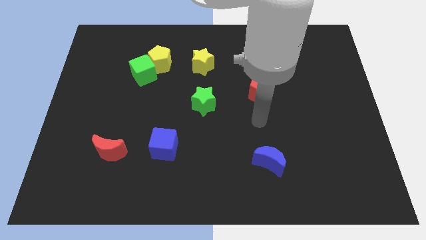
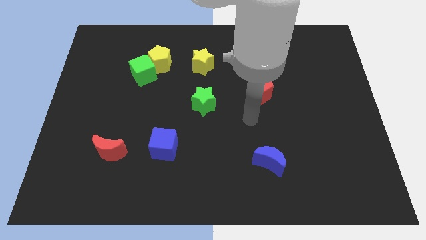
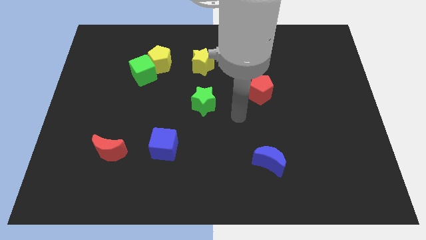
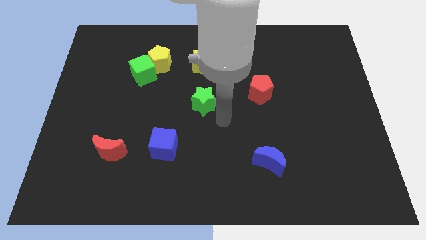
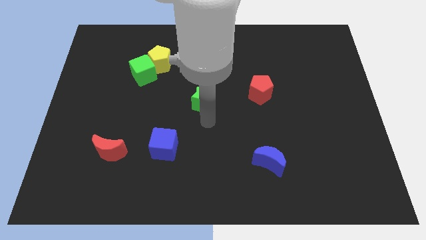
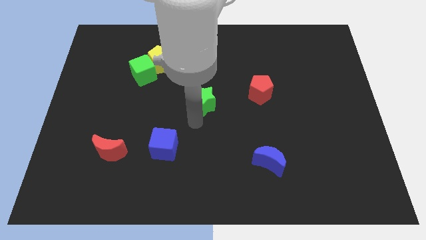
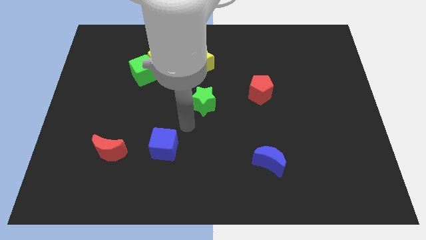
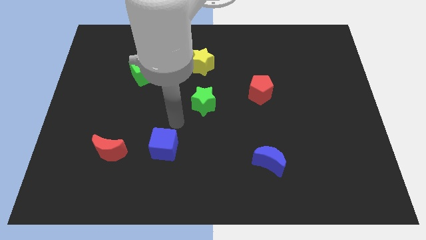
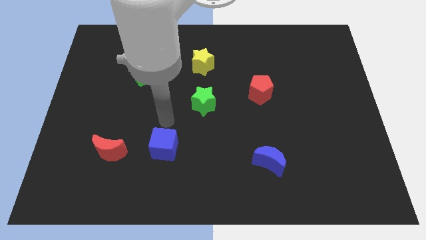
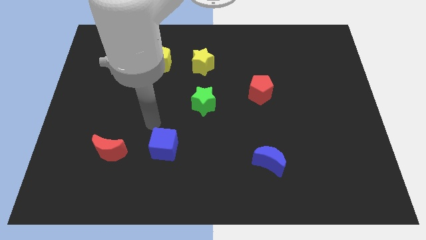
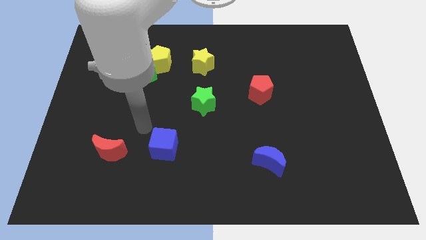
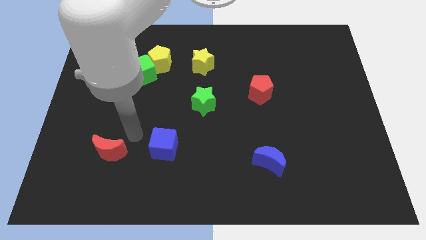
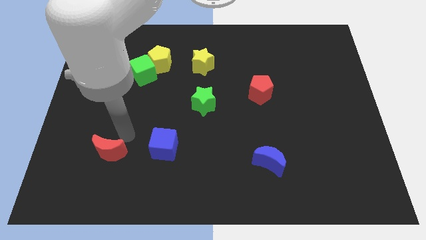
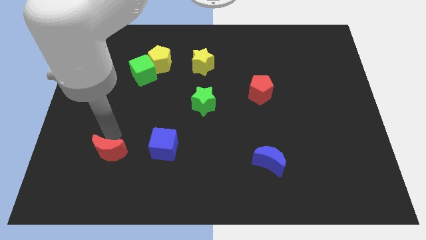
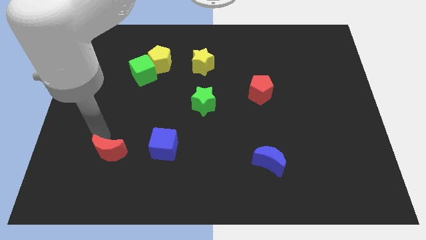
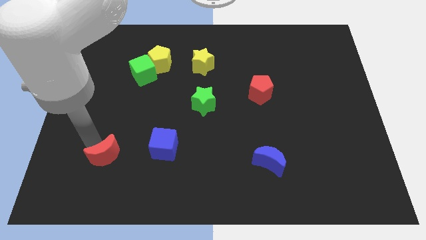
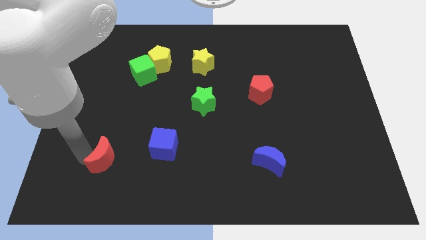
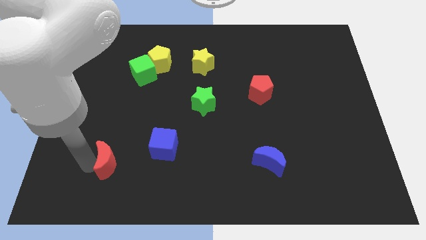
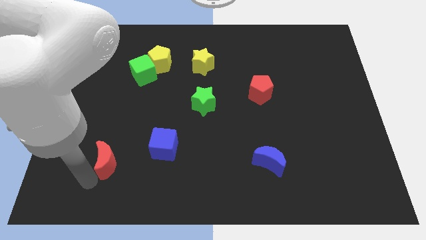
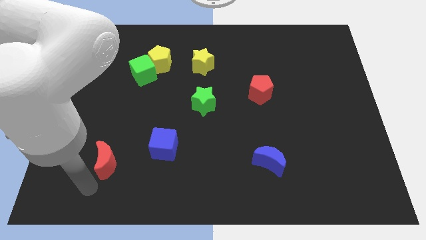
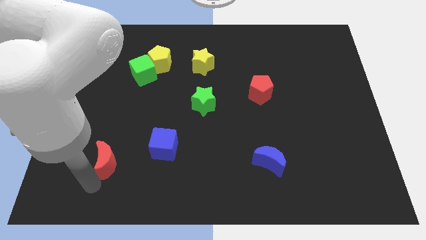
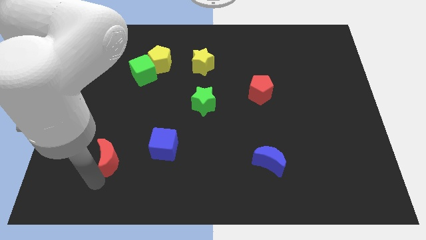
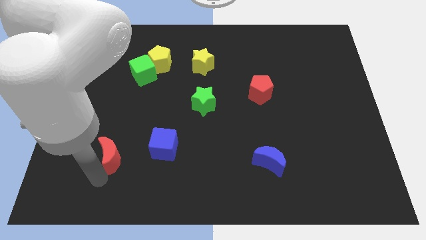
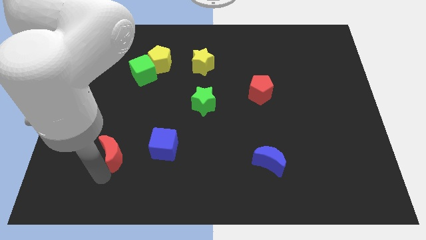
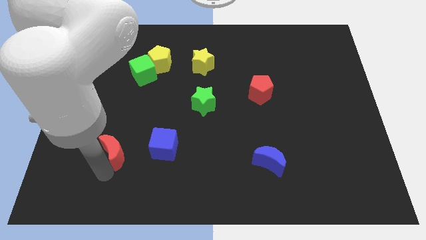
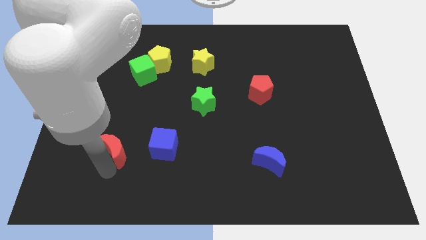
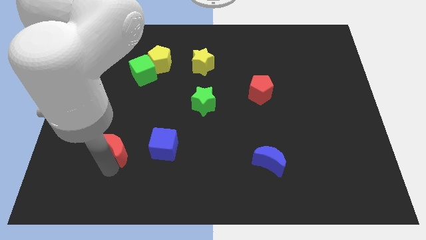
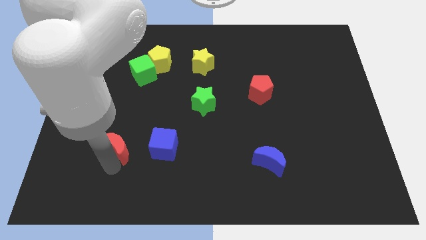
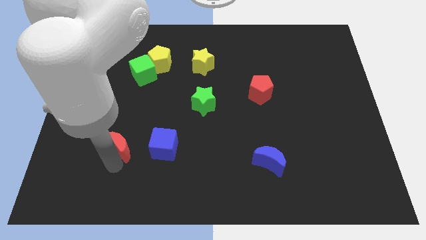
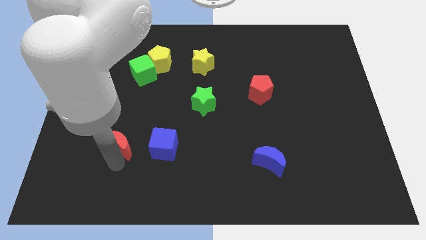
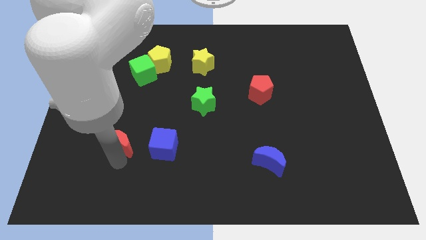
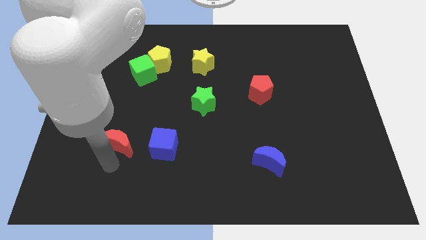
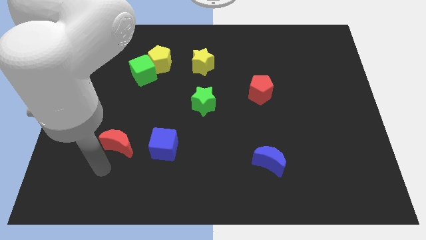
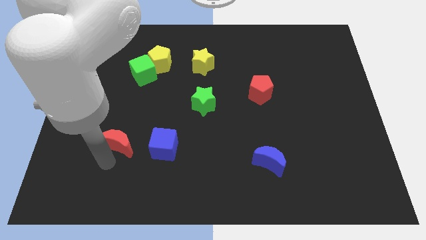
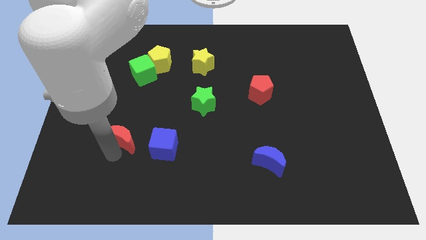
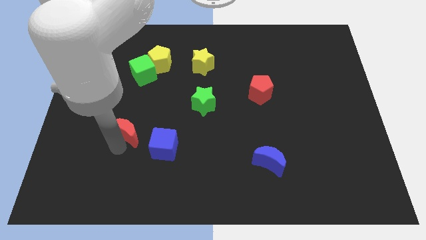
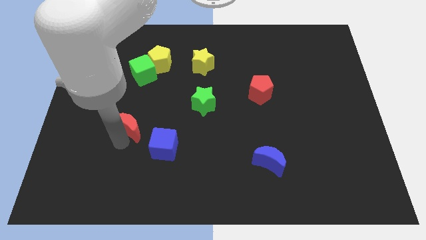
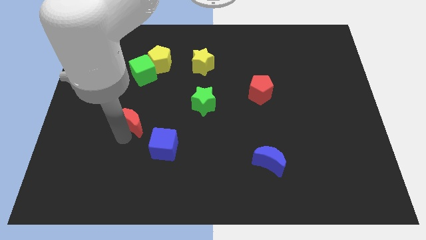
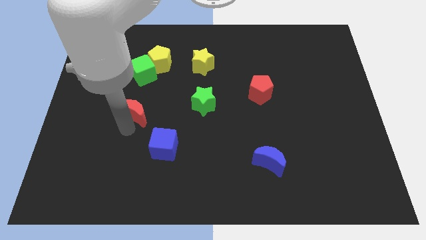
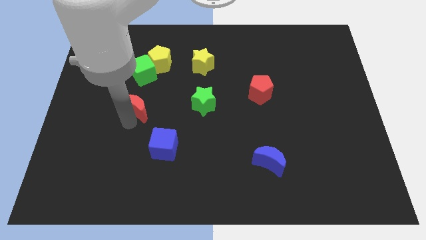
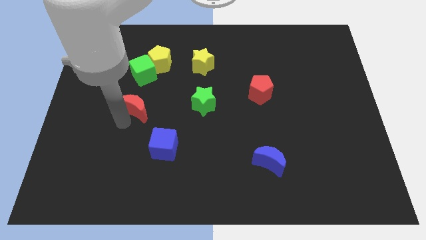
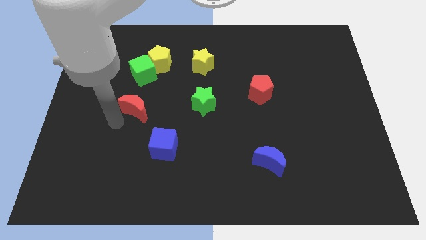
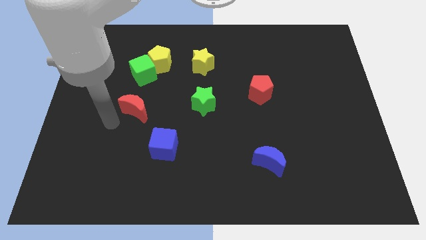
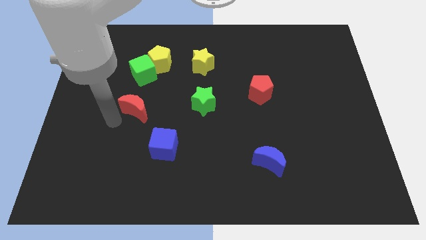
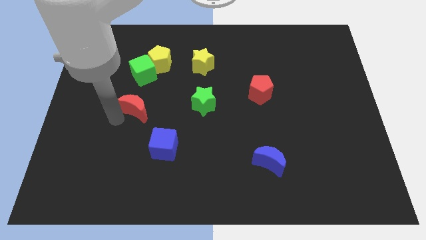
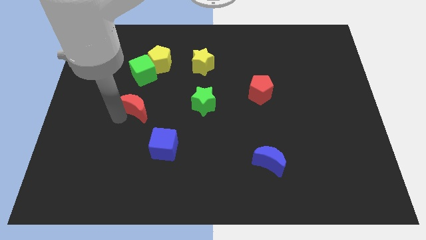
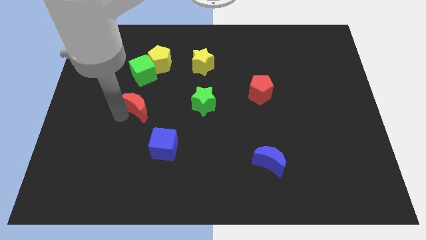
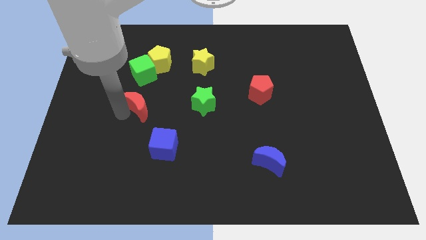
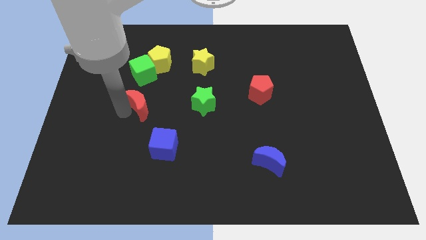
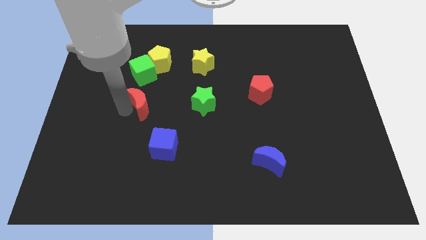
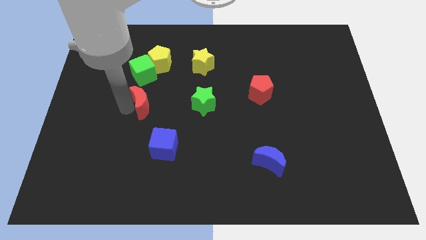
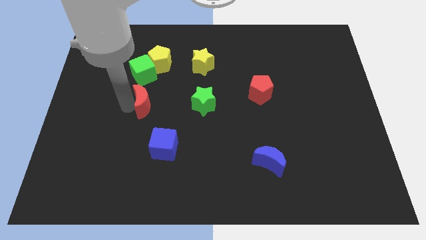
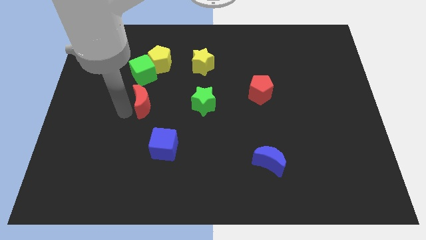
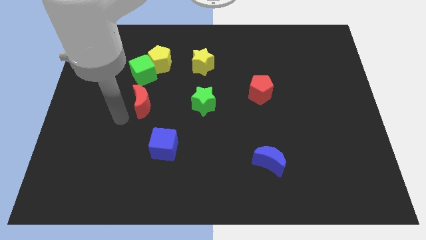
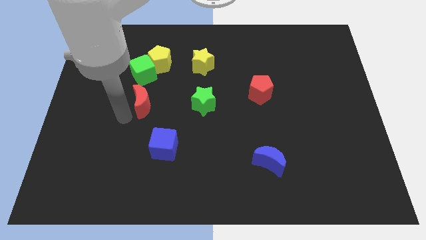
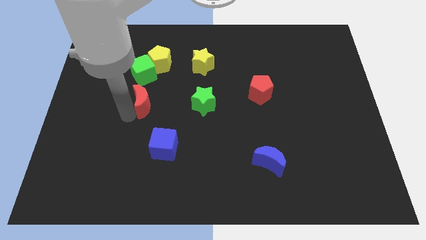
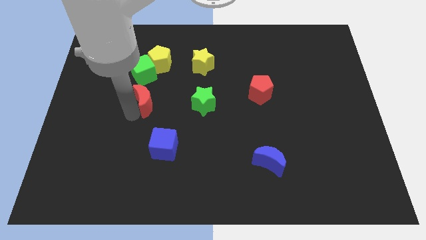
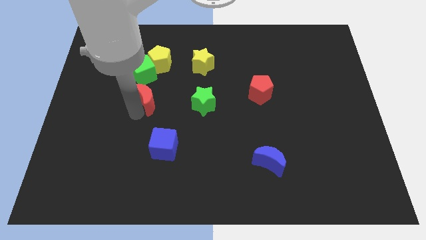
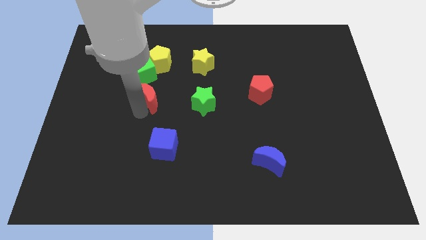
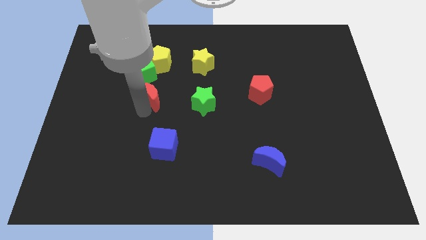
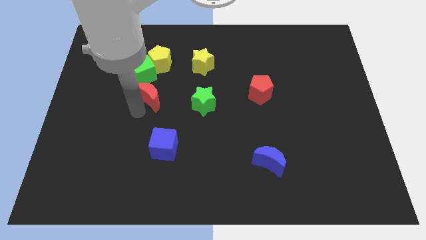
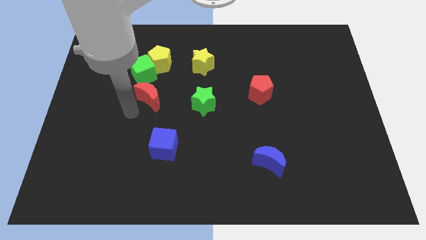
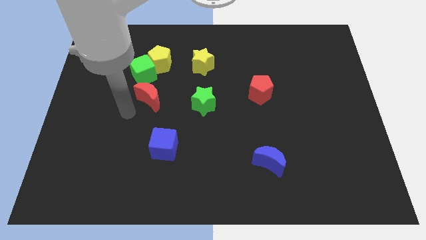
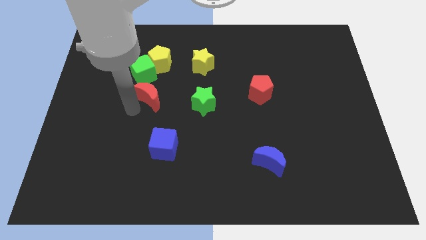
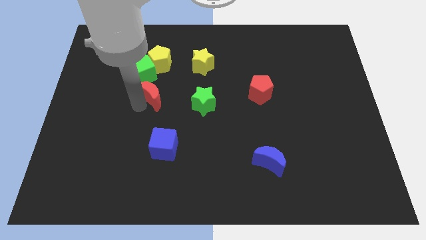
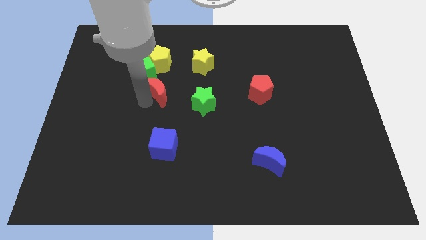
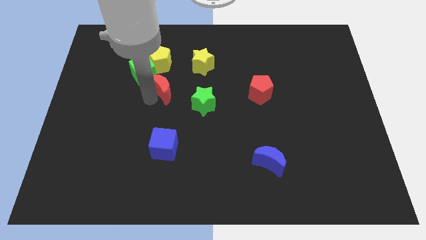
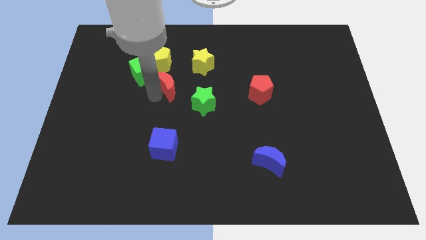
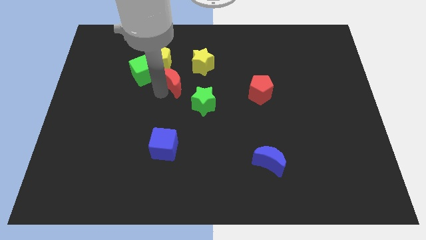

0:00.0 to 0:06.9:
slide the red moon diagonally upwards and right

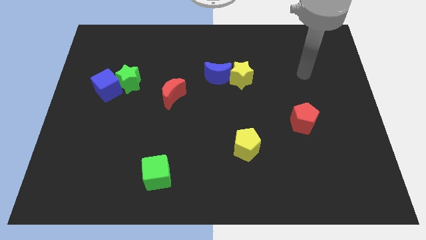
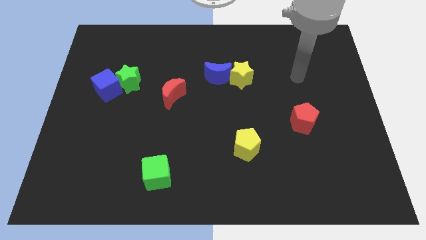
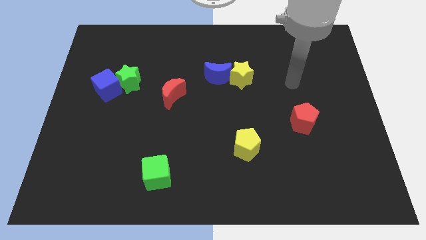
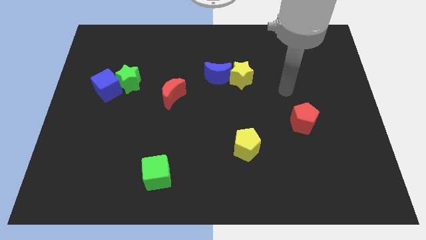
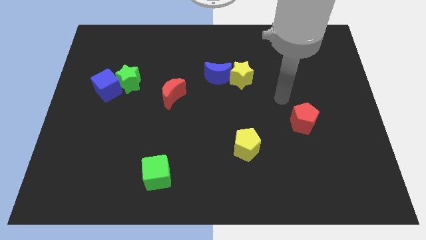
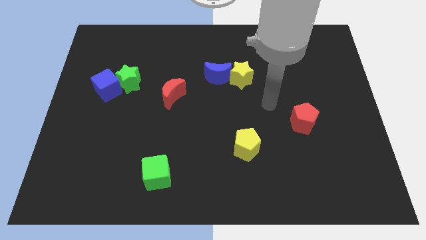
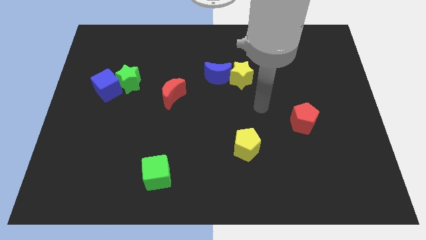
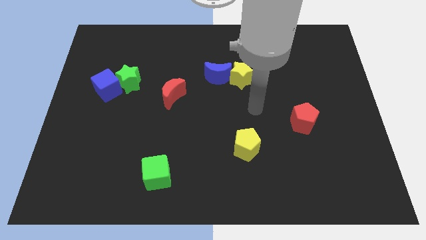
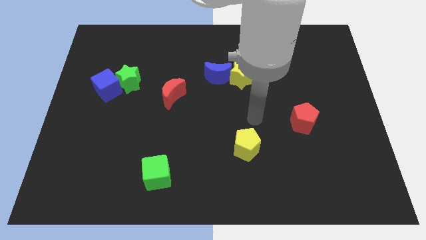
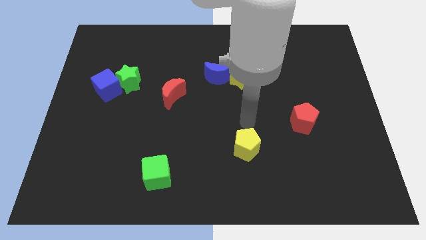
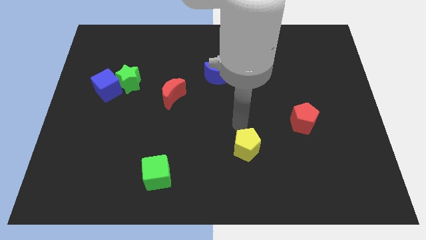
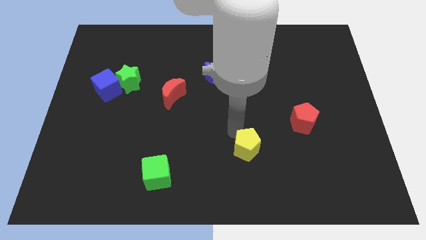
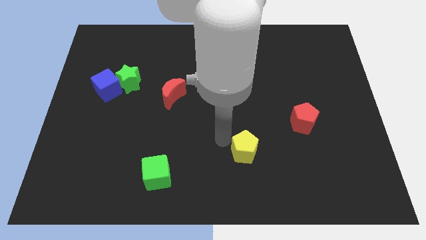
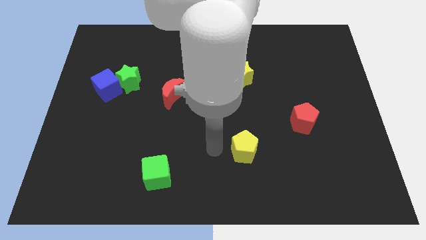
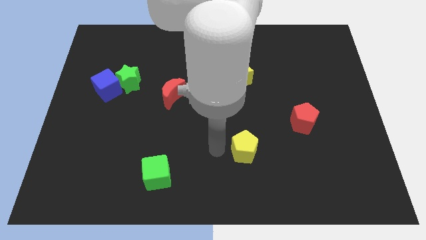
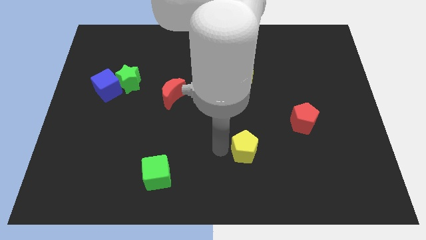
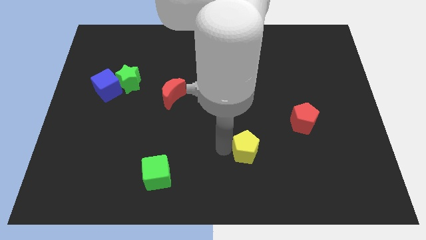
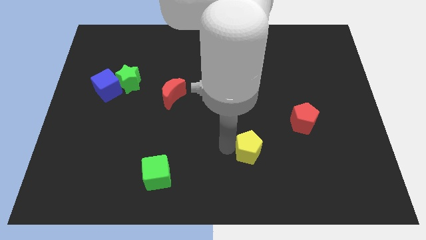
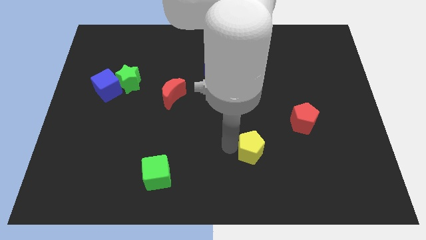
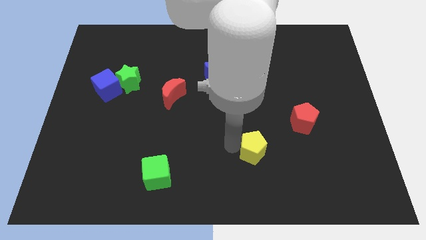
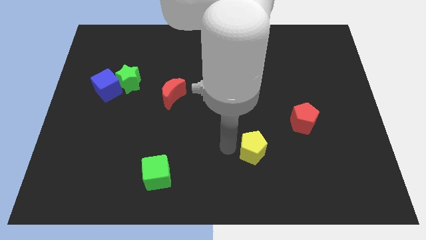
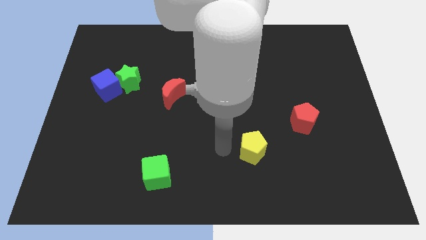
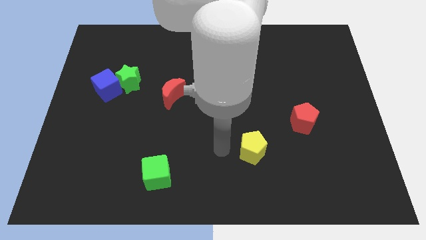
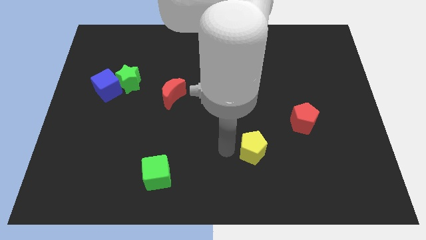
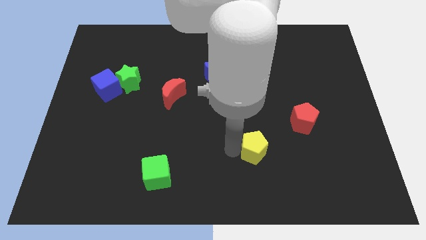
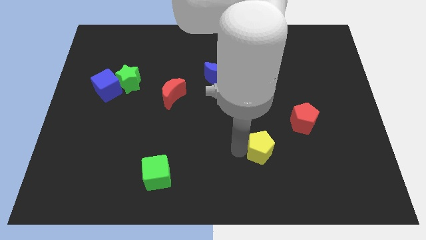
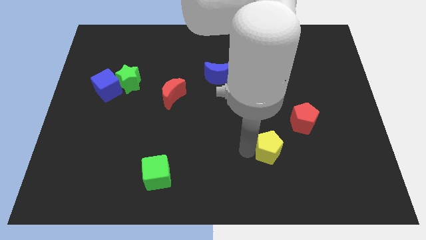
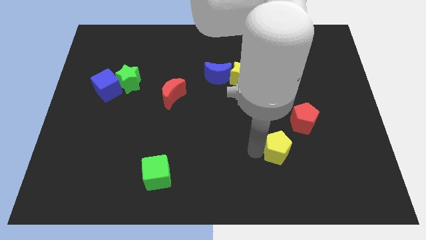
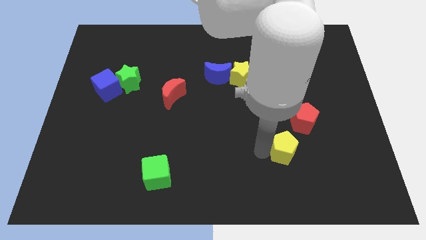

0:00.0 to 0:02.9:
slightly slide the yellow pentagon right
